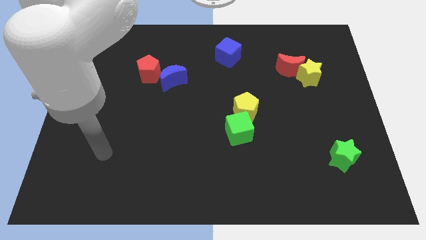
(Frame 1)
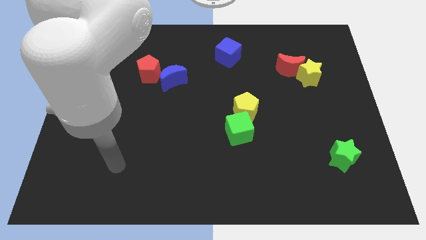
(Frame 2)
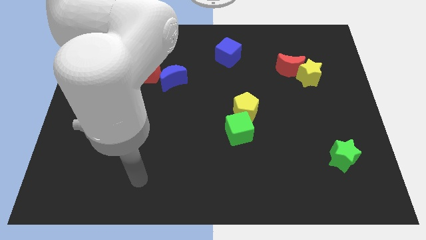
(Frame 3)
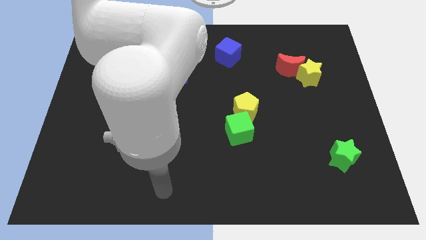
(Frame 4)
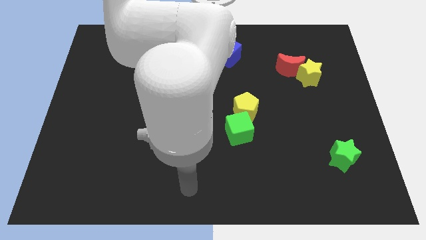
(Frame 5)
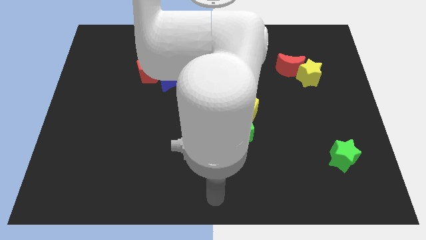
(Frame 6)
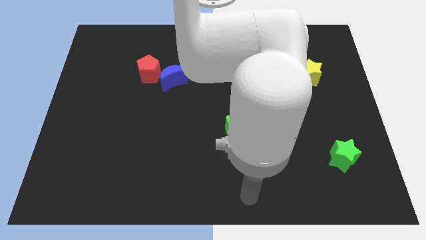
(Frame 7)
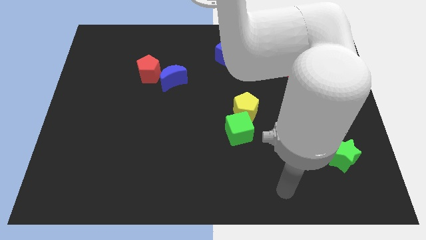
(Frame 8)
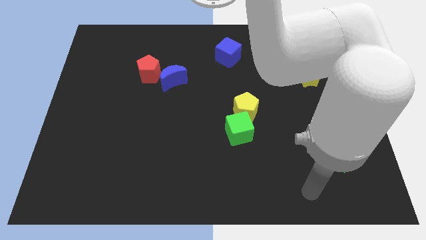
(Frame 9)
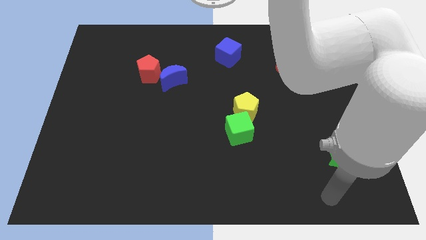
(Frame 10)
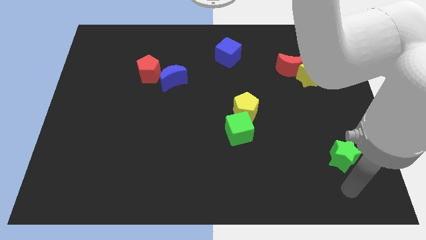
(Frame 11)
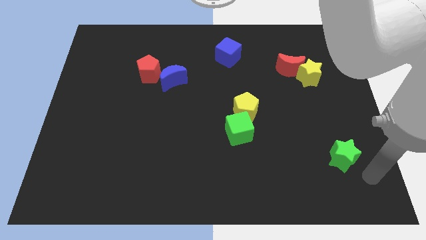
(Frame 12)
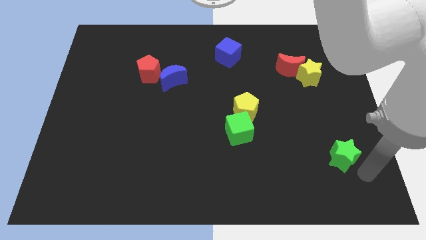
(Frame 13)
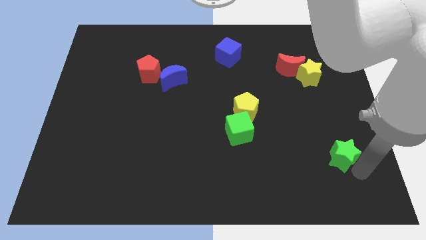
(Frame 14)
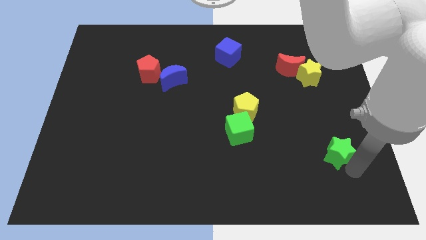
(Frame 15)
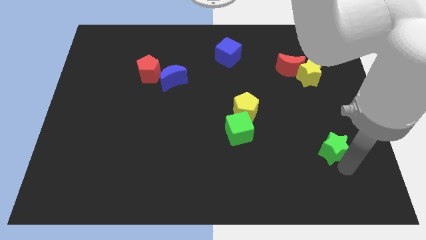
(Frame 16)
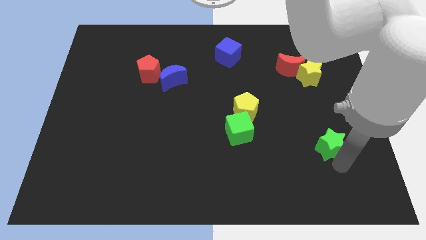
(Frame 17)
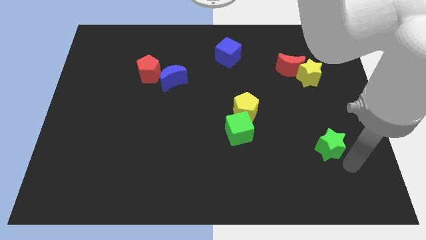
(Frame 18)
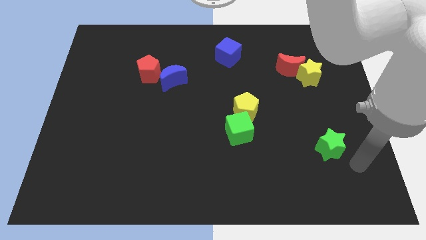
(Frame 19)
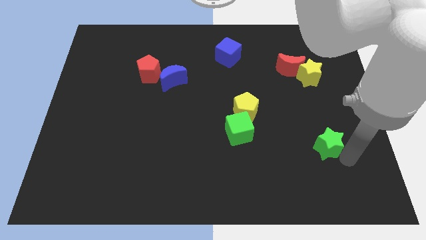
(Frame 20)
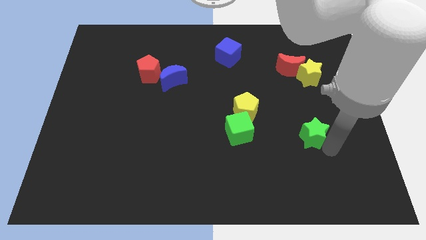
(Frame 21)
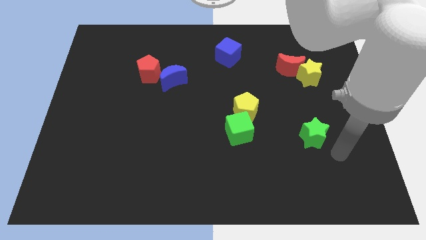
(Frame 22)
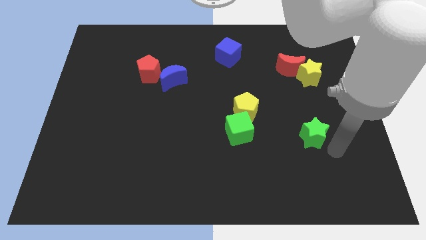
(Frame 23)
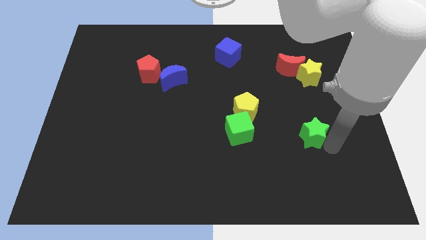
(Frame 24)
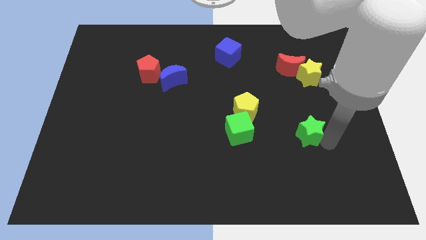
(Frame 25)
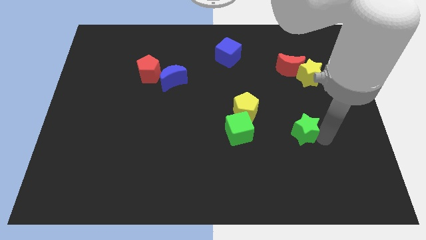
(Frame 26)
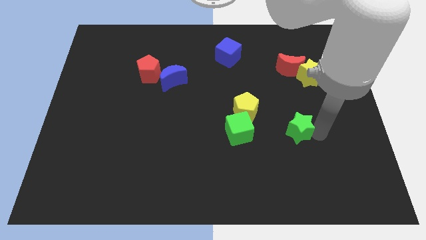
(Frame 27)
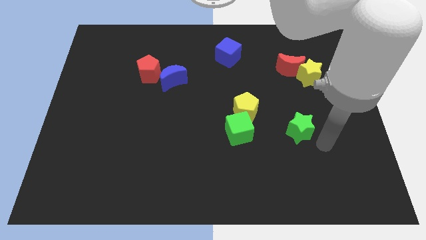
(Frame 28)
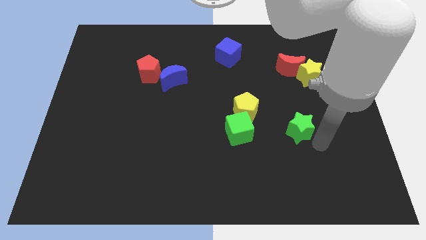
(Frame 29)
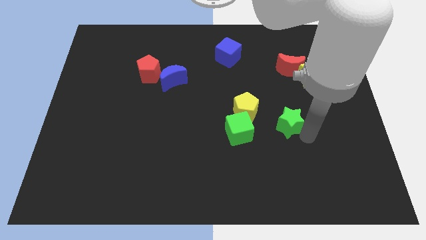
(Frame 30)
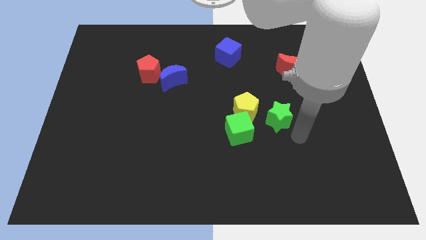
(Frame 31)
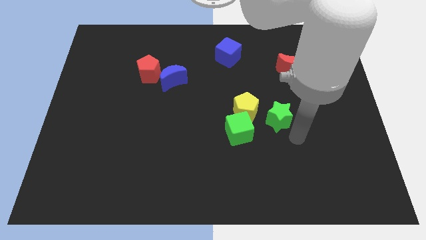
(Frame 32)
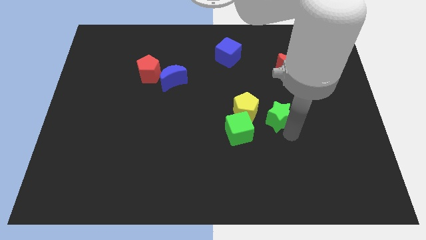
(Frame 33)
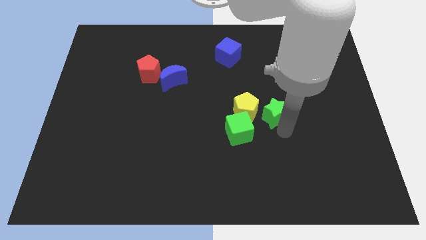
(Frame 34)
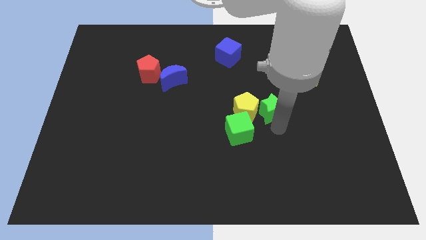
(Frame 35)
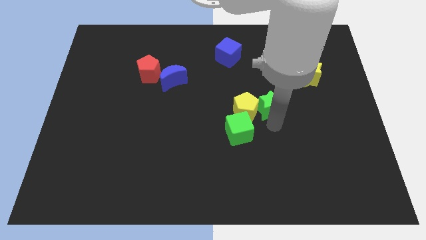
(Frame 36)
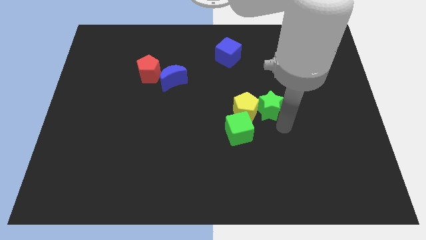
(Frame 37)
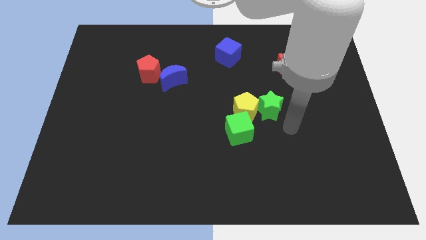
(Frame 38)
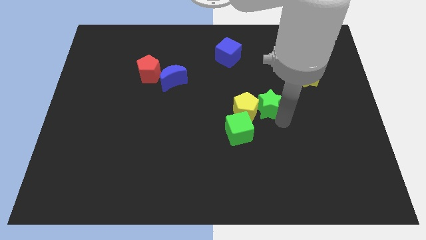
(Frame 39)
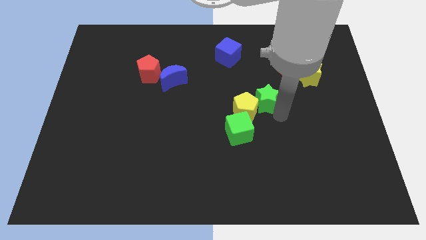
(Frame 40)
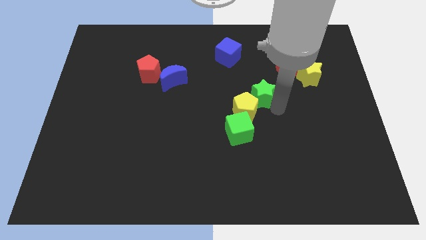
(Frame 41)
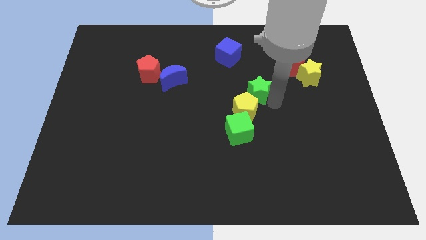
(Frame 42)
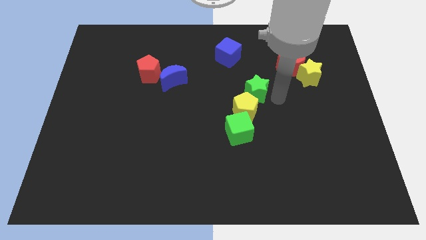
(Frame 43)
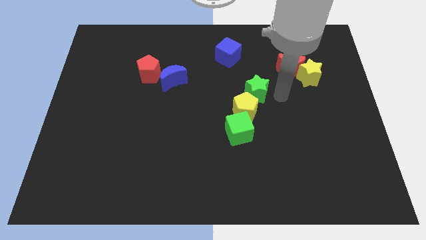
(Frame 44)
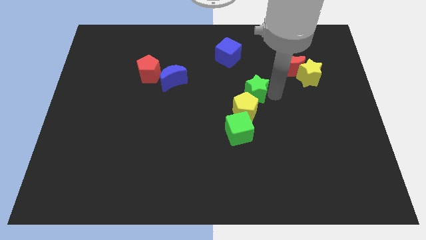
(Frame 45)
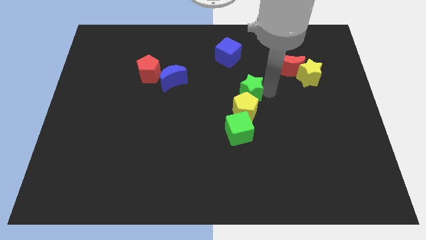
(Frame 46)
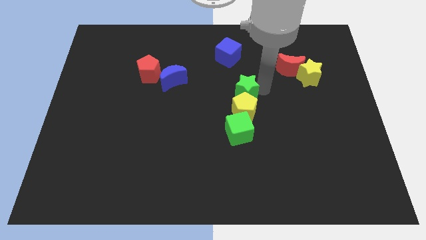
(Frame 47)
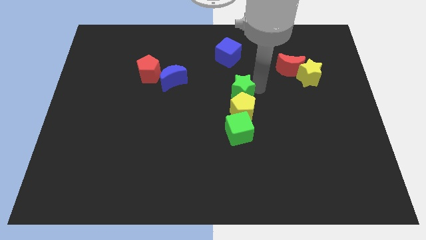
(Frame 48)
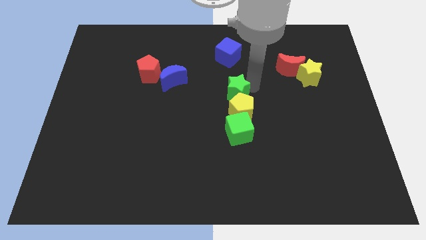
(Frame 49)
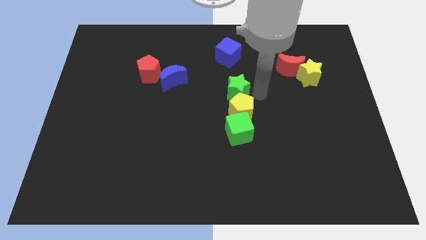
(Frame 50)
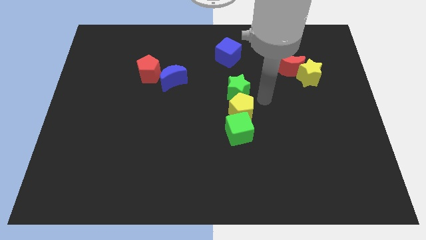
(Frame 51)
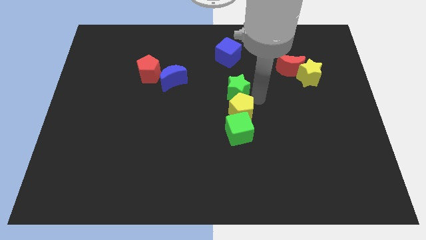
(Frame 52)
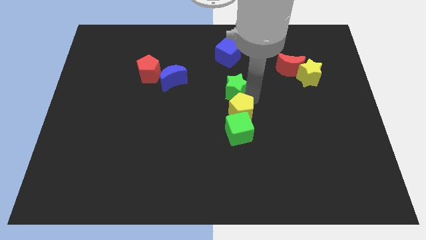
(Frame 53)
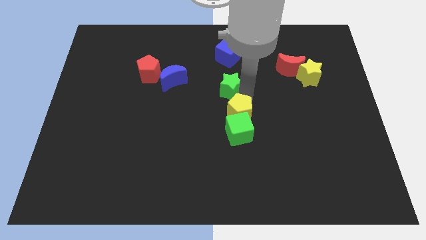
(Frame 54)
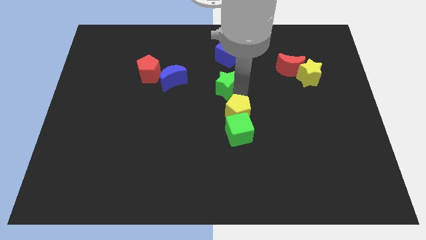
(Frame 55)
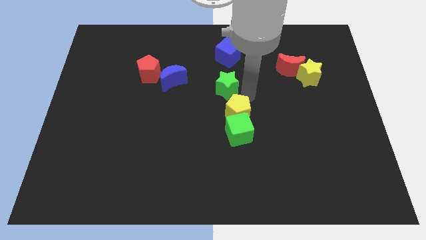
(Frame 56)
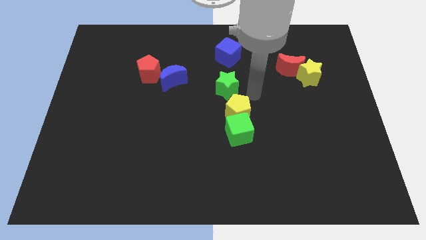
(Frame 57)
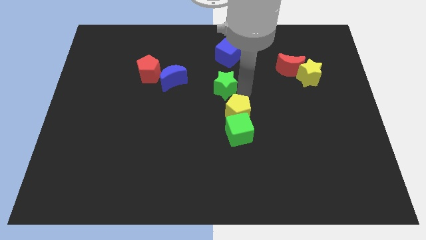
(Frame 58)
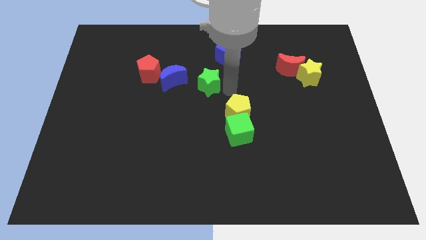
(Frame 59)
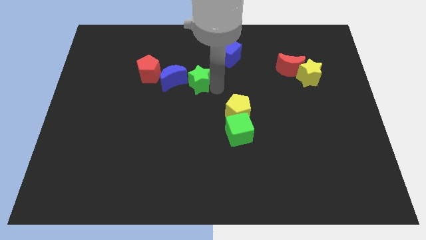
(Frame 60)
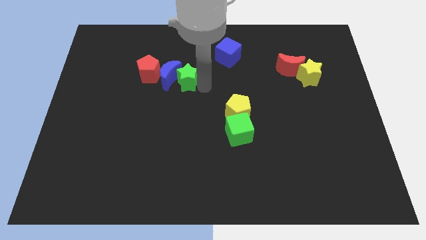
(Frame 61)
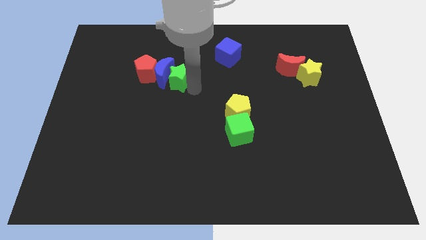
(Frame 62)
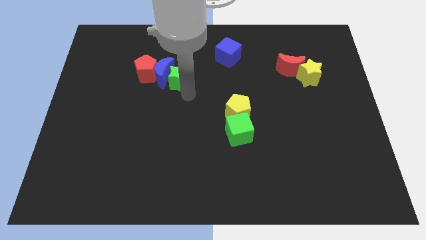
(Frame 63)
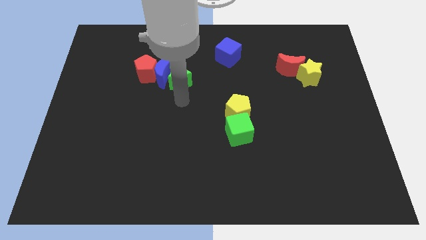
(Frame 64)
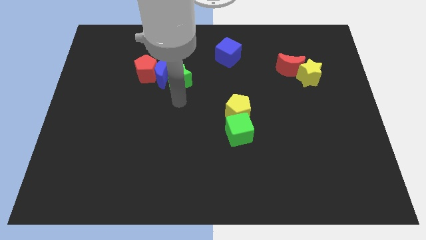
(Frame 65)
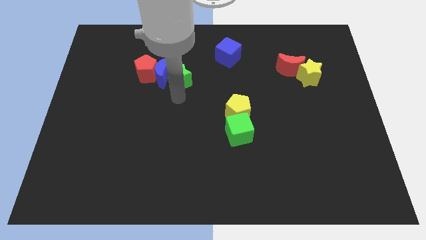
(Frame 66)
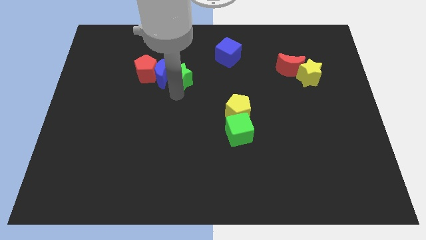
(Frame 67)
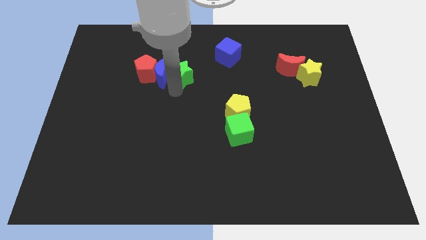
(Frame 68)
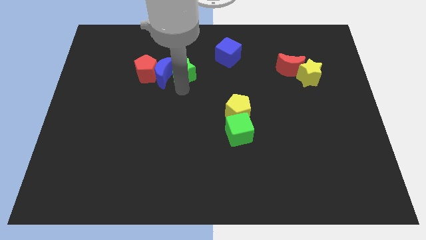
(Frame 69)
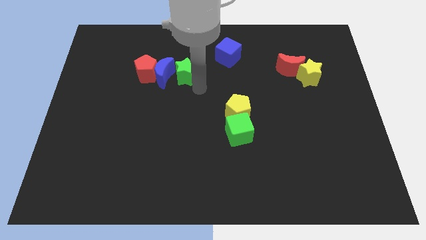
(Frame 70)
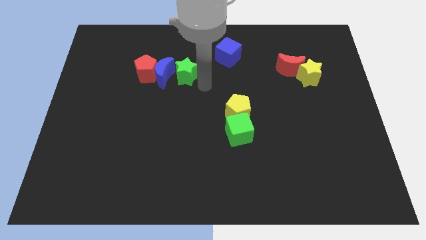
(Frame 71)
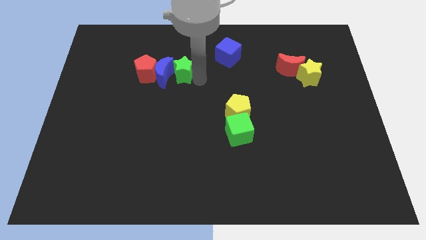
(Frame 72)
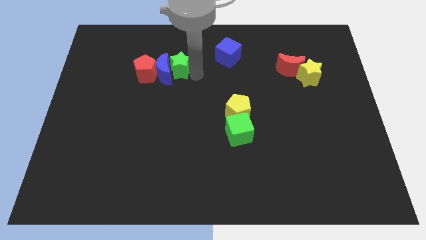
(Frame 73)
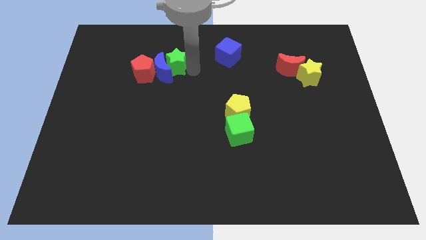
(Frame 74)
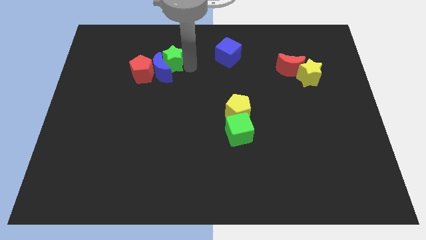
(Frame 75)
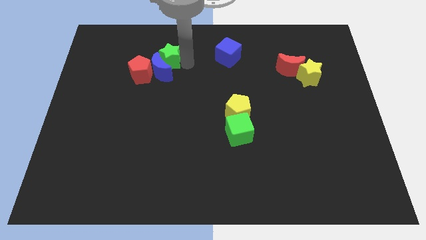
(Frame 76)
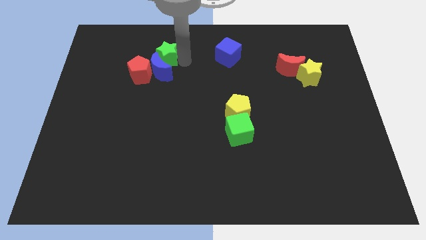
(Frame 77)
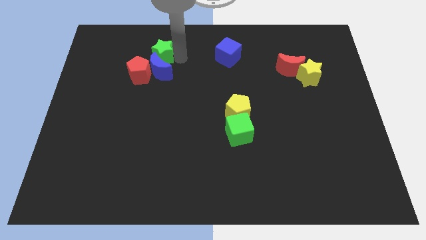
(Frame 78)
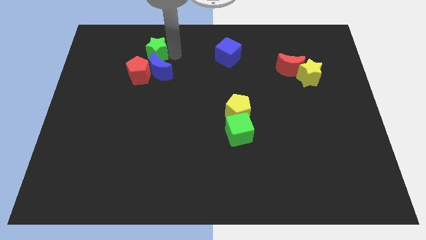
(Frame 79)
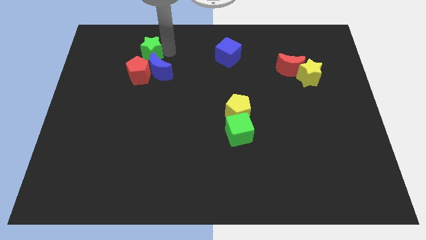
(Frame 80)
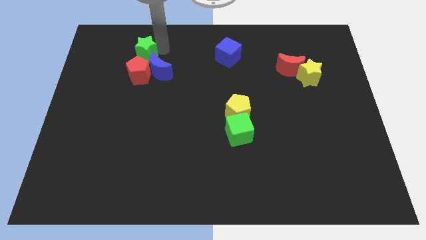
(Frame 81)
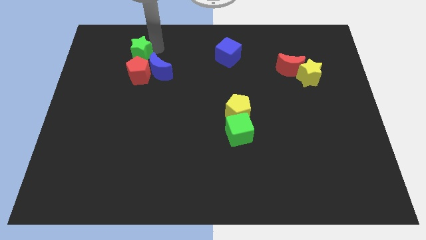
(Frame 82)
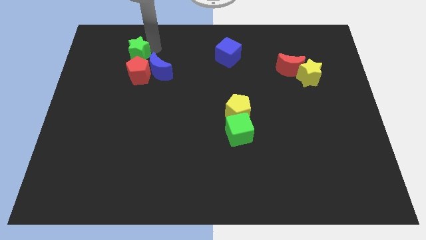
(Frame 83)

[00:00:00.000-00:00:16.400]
slide the green star diagonally up and to the left of the red pentagon
